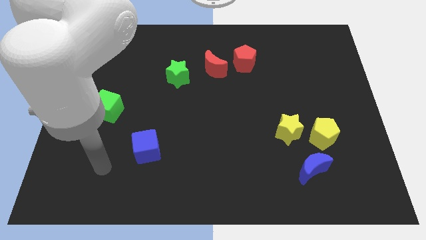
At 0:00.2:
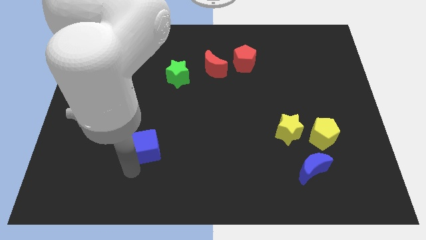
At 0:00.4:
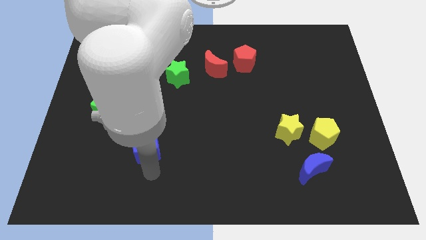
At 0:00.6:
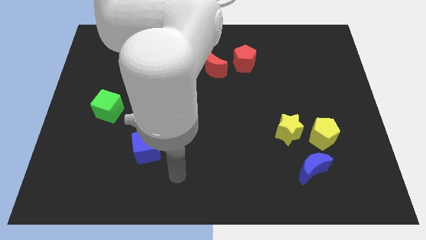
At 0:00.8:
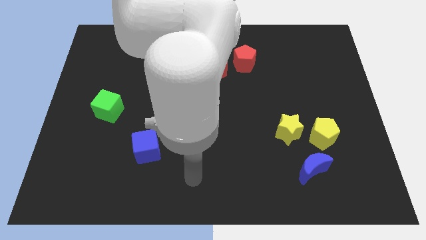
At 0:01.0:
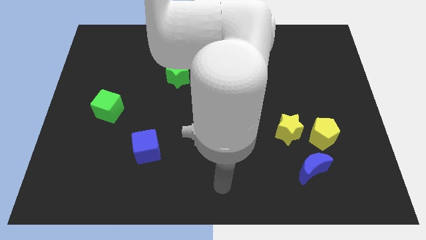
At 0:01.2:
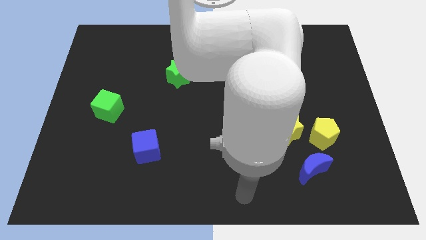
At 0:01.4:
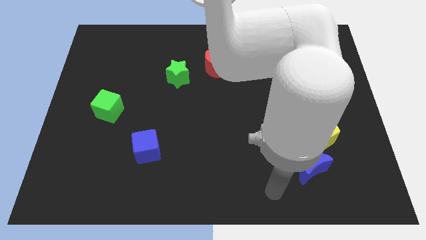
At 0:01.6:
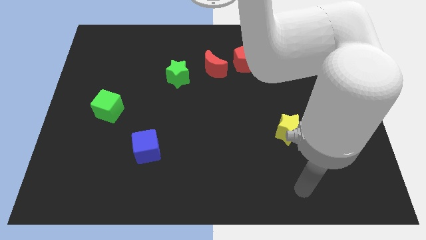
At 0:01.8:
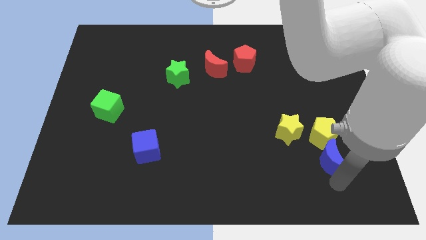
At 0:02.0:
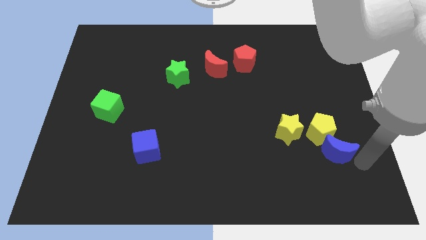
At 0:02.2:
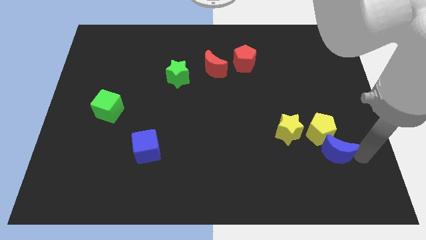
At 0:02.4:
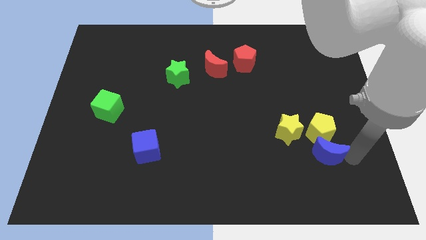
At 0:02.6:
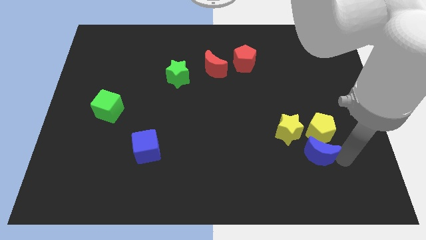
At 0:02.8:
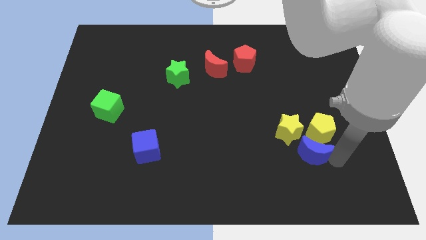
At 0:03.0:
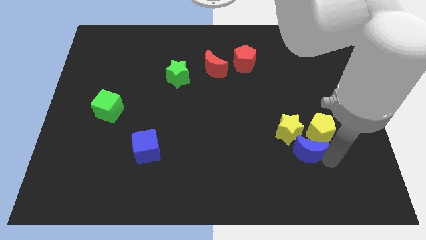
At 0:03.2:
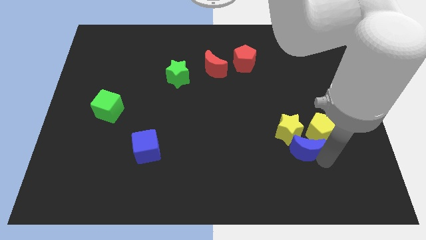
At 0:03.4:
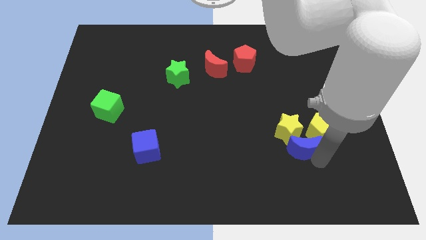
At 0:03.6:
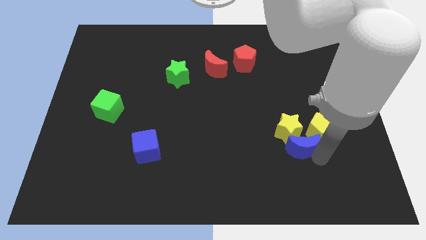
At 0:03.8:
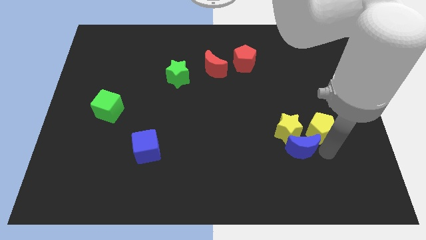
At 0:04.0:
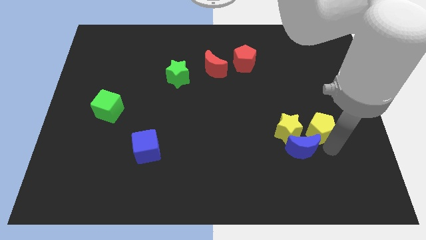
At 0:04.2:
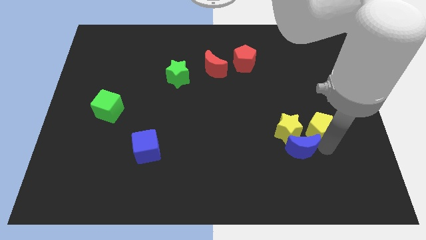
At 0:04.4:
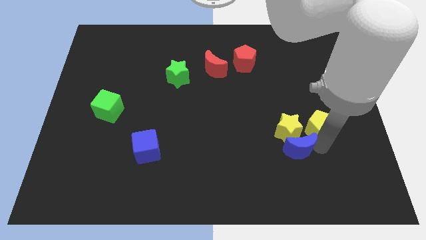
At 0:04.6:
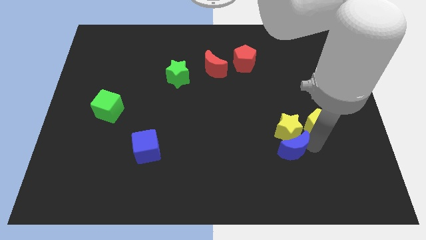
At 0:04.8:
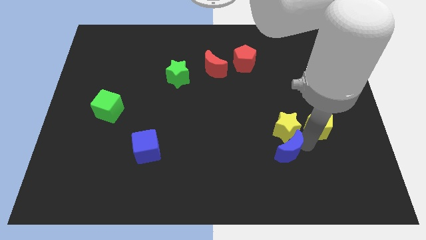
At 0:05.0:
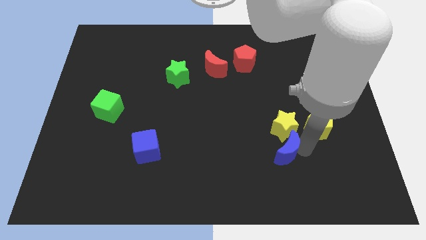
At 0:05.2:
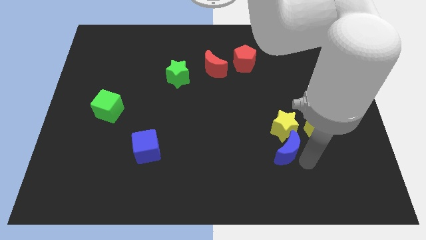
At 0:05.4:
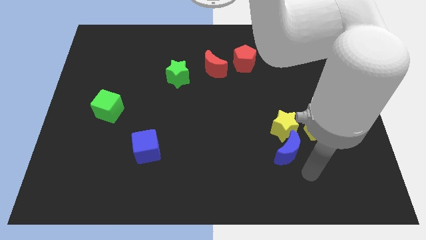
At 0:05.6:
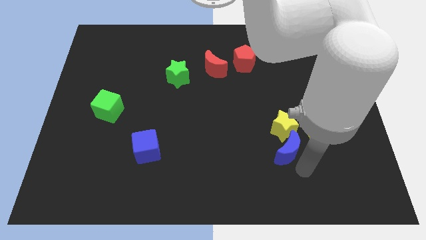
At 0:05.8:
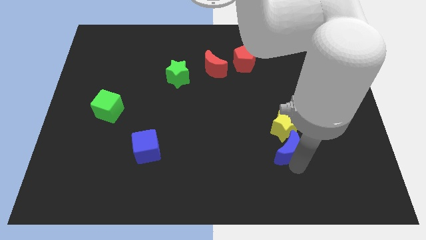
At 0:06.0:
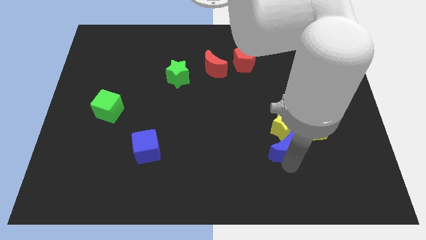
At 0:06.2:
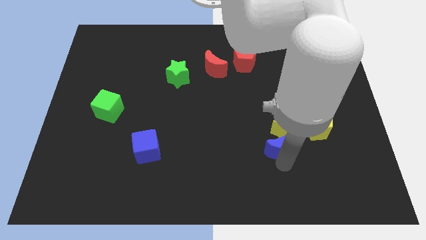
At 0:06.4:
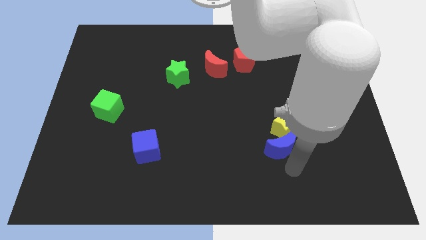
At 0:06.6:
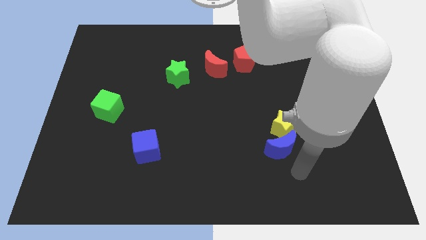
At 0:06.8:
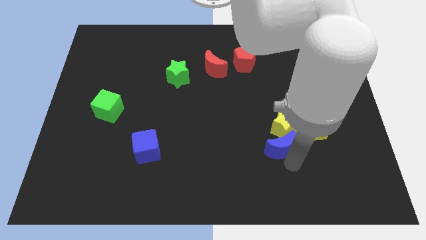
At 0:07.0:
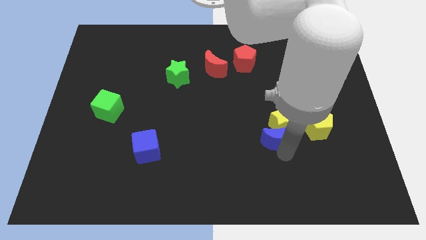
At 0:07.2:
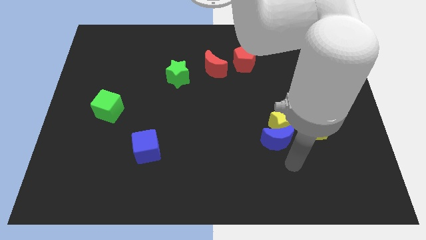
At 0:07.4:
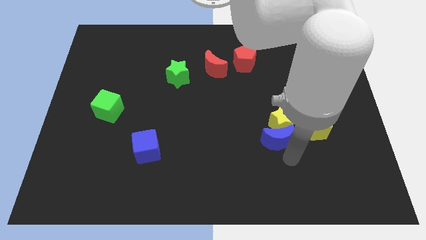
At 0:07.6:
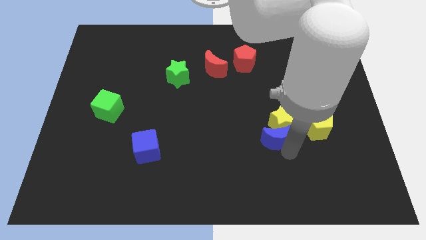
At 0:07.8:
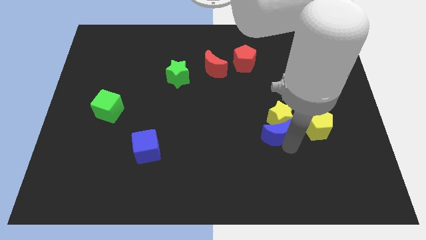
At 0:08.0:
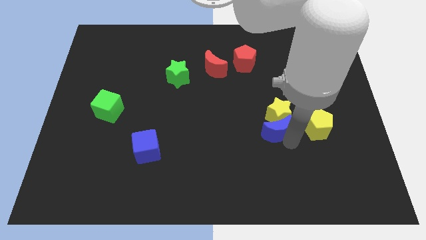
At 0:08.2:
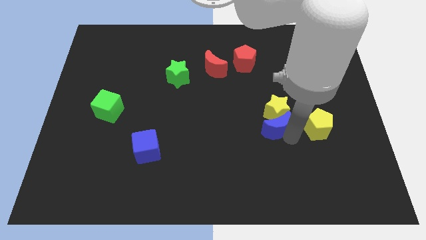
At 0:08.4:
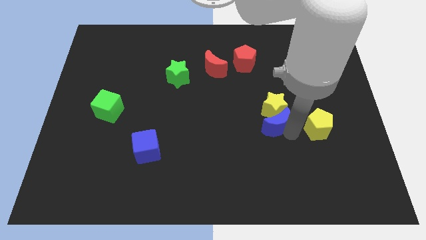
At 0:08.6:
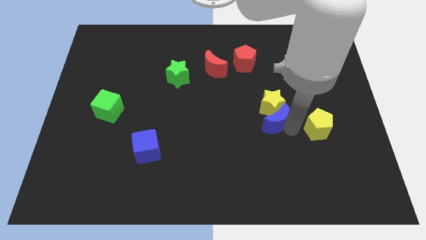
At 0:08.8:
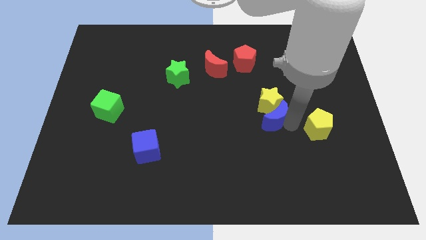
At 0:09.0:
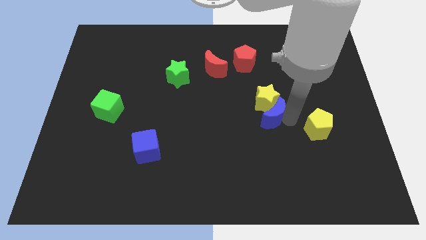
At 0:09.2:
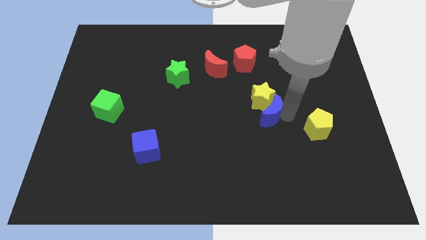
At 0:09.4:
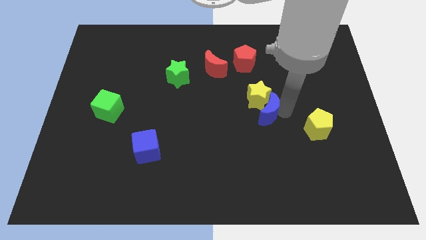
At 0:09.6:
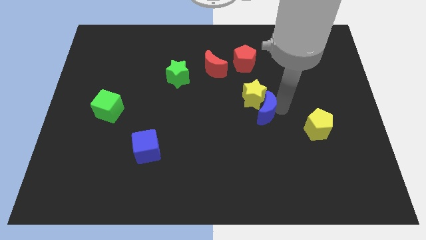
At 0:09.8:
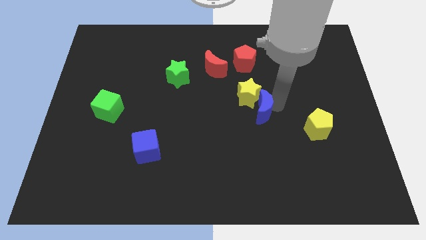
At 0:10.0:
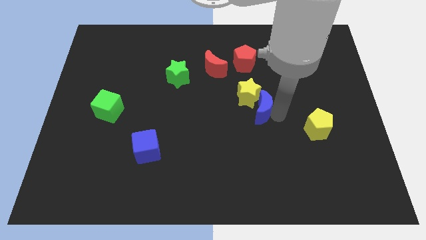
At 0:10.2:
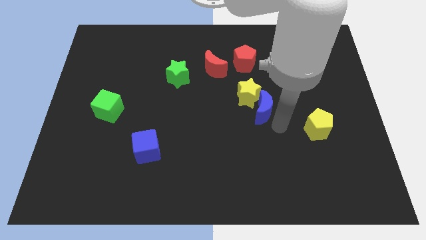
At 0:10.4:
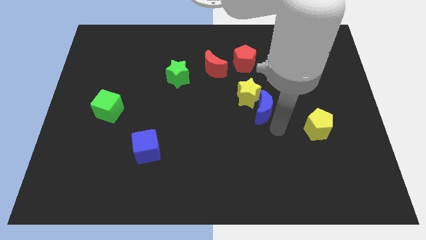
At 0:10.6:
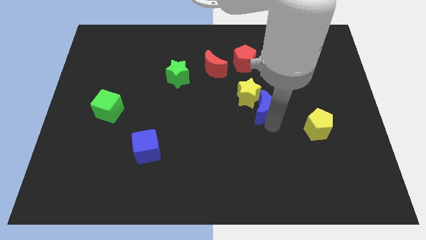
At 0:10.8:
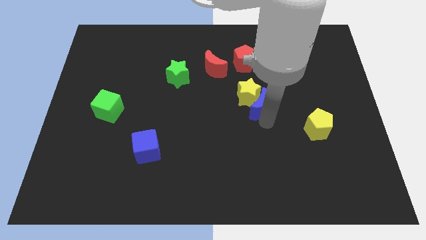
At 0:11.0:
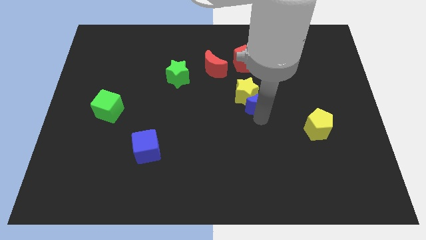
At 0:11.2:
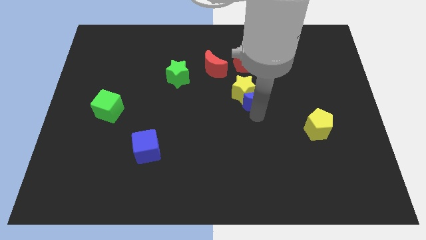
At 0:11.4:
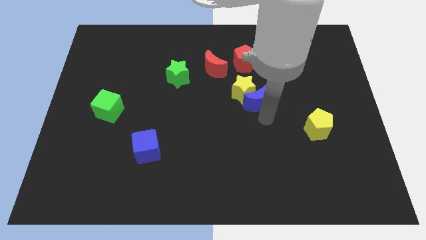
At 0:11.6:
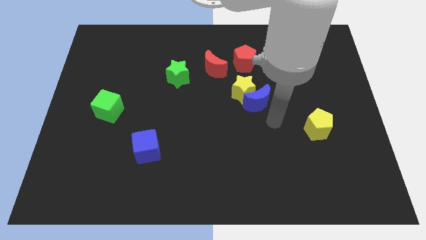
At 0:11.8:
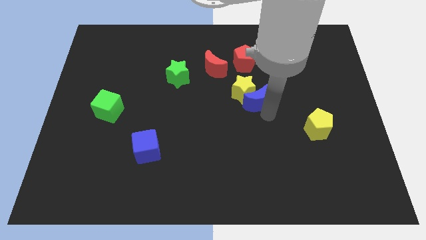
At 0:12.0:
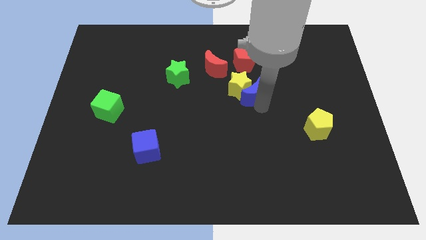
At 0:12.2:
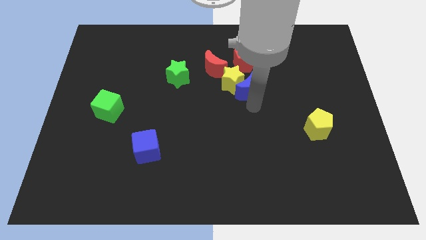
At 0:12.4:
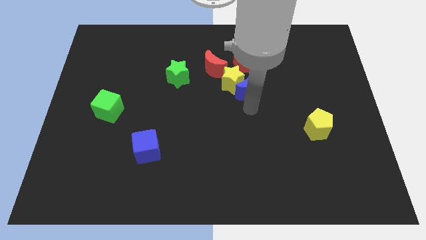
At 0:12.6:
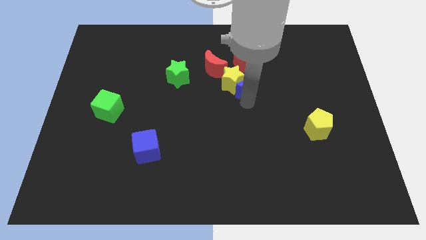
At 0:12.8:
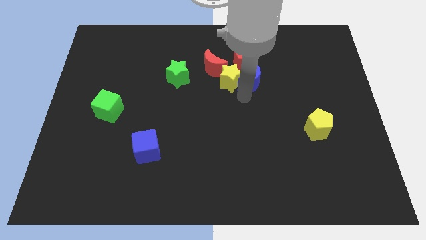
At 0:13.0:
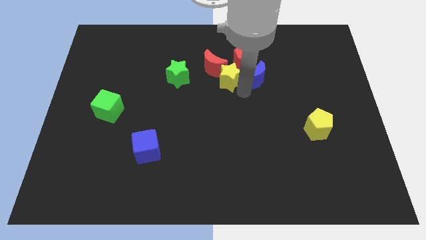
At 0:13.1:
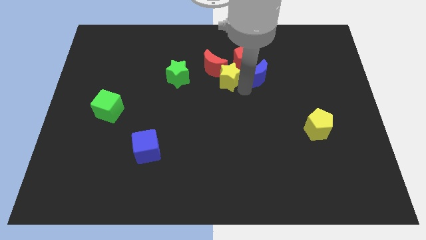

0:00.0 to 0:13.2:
push the blue moon next to the red pentagon

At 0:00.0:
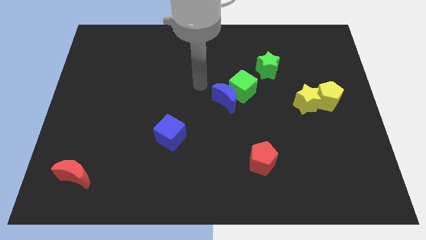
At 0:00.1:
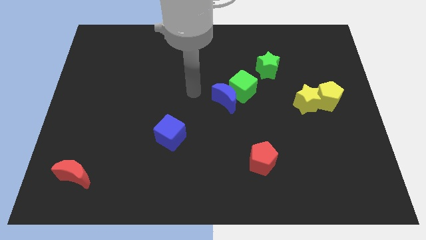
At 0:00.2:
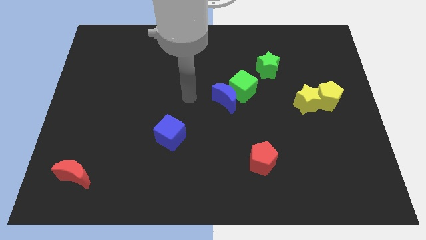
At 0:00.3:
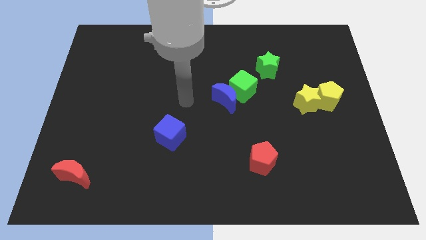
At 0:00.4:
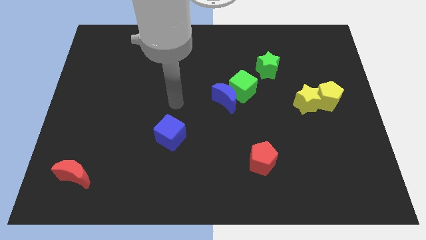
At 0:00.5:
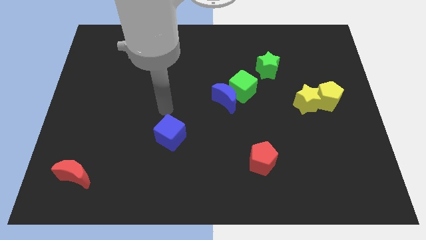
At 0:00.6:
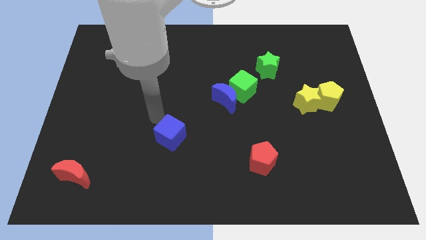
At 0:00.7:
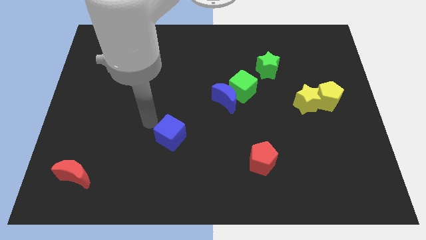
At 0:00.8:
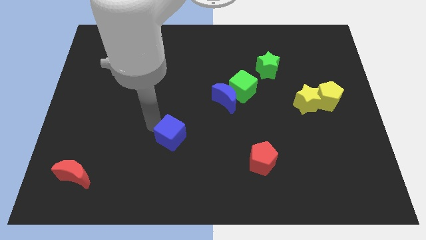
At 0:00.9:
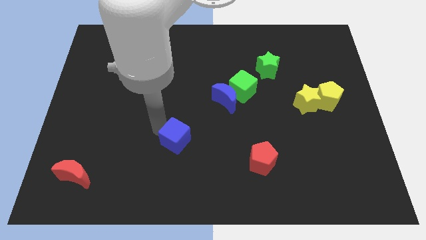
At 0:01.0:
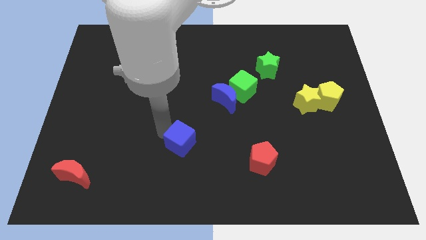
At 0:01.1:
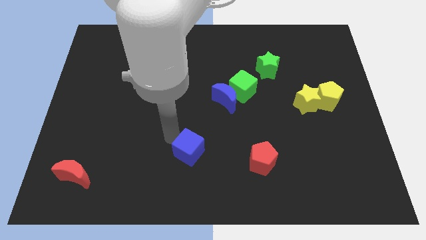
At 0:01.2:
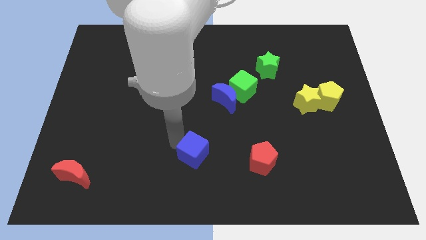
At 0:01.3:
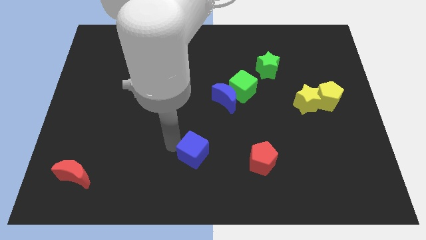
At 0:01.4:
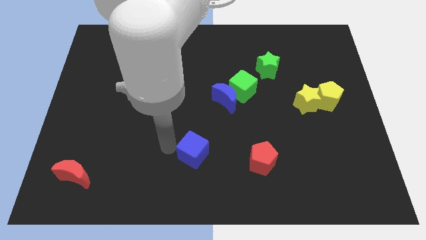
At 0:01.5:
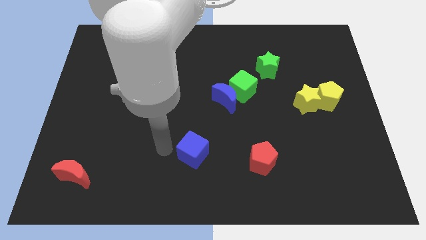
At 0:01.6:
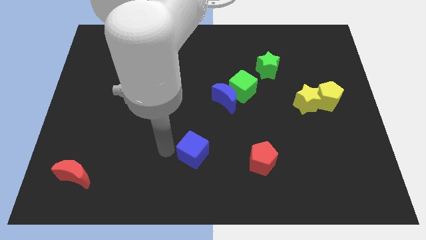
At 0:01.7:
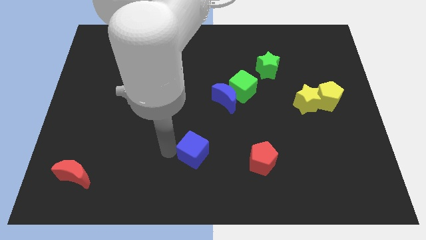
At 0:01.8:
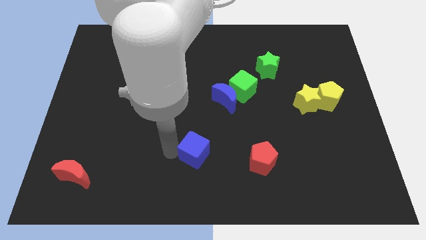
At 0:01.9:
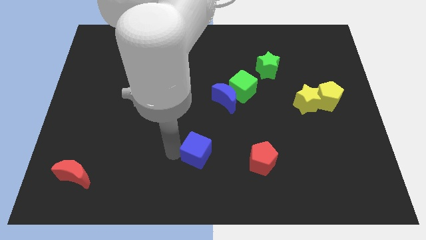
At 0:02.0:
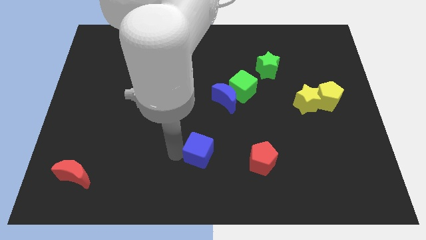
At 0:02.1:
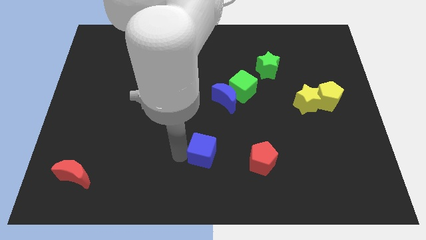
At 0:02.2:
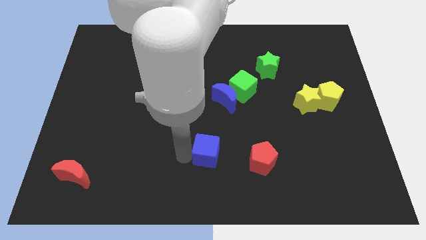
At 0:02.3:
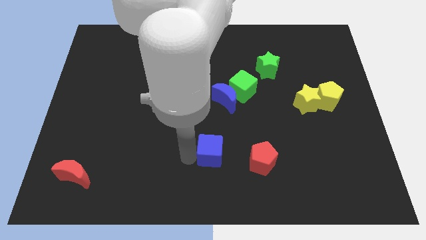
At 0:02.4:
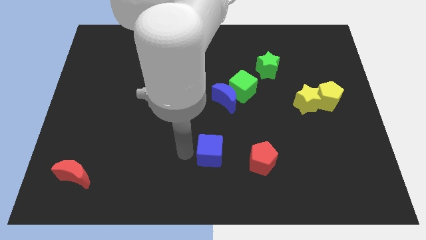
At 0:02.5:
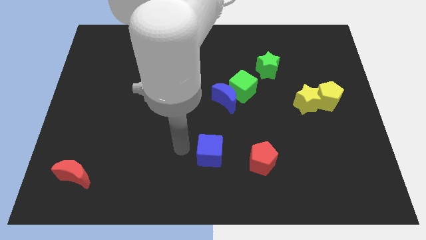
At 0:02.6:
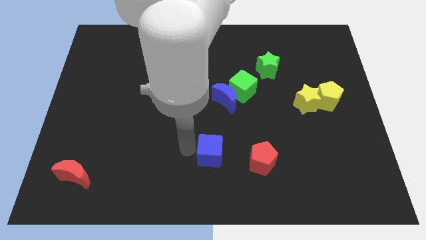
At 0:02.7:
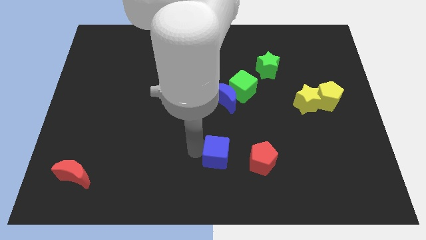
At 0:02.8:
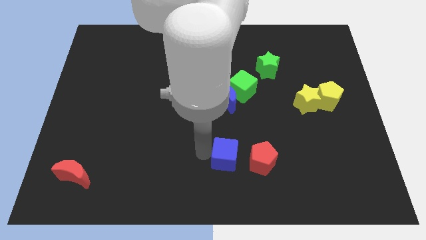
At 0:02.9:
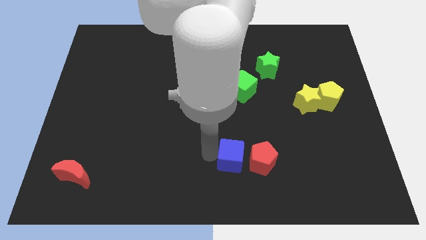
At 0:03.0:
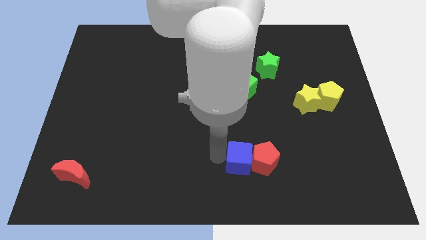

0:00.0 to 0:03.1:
slide the blue cube close to the red pentagon
